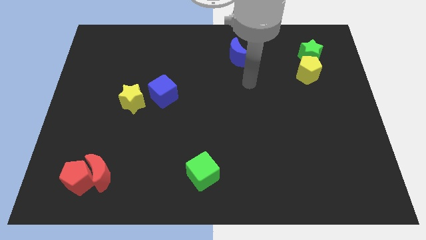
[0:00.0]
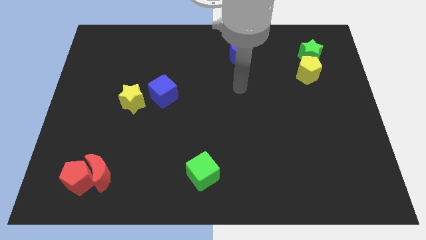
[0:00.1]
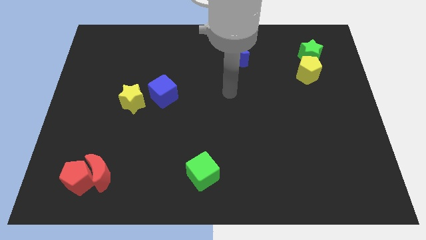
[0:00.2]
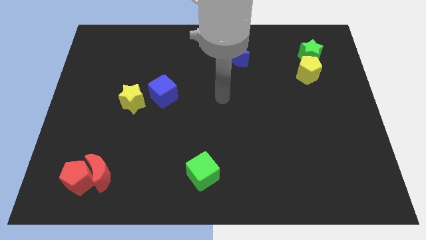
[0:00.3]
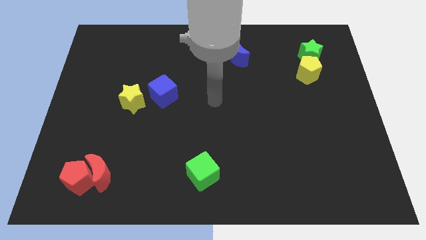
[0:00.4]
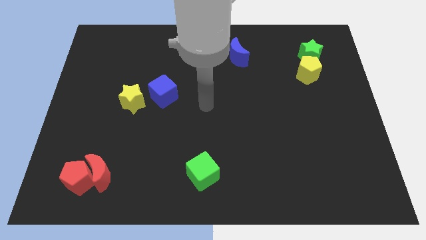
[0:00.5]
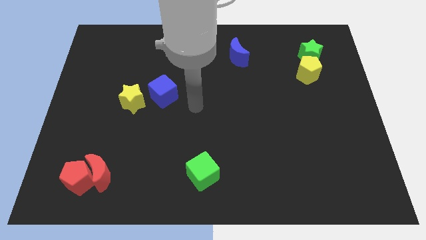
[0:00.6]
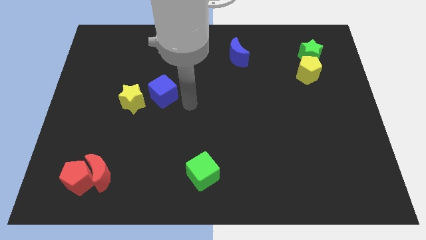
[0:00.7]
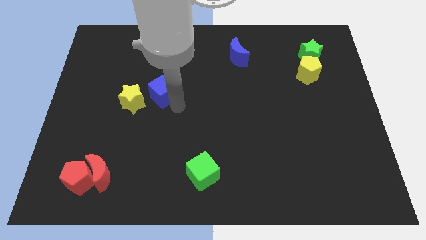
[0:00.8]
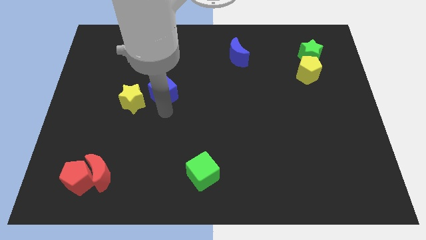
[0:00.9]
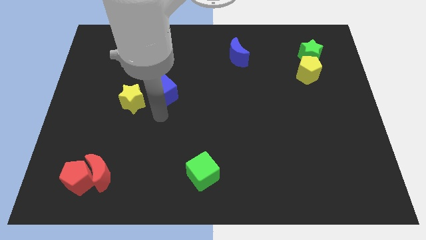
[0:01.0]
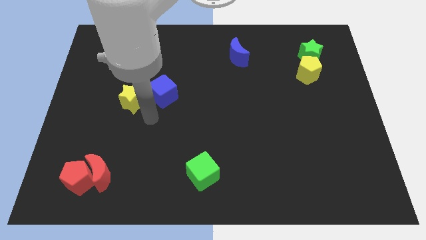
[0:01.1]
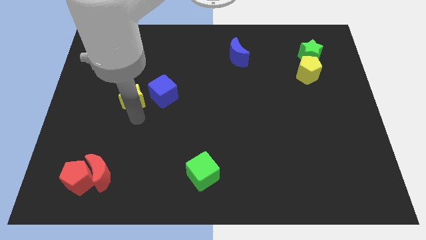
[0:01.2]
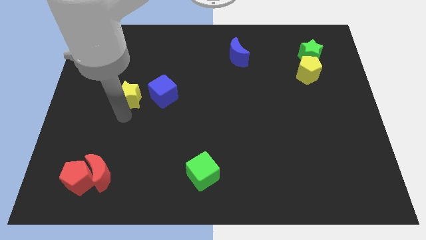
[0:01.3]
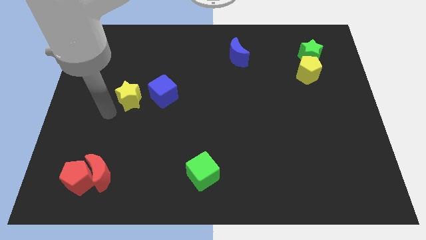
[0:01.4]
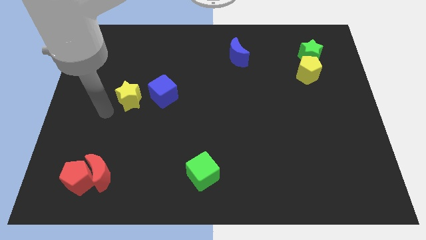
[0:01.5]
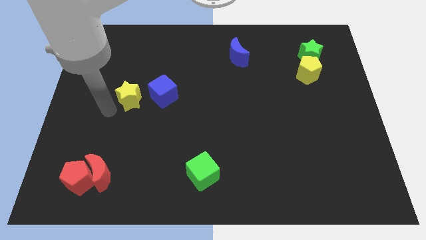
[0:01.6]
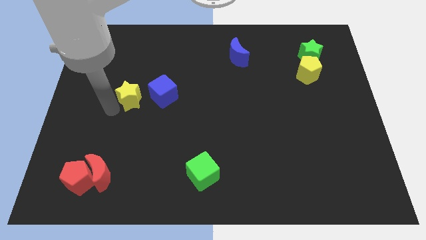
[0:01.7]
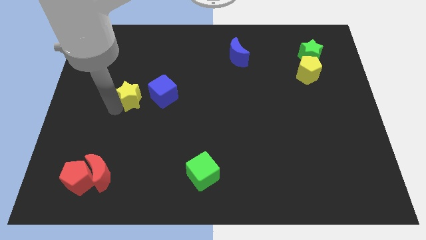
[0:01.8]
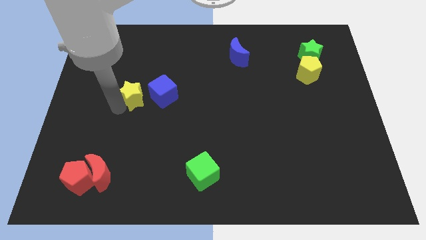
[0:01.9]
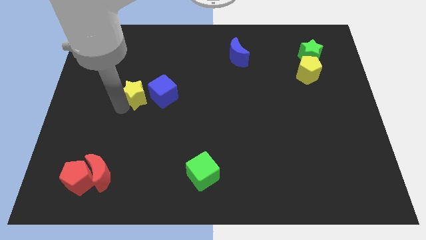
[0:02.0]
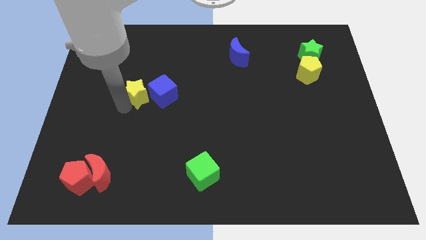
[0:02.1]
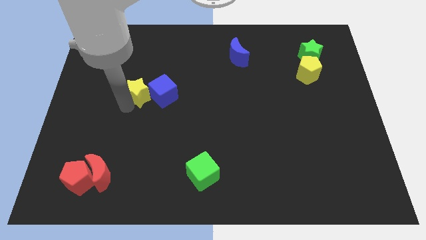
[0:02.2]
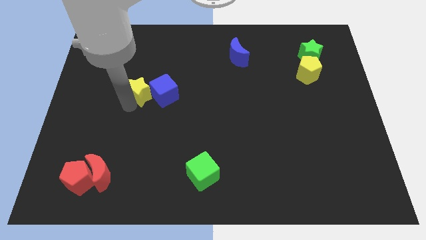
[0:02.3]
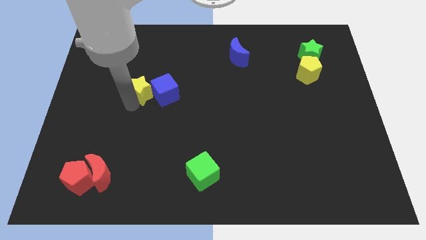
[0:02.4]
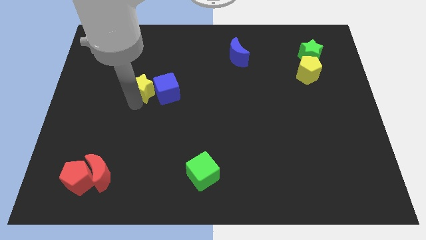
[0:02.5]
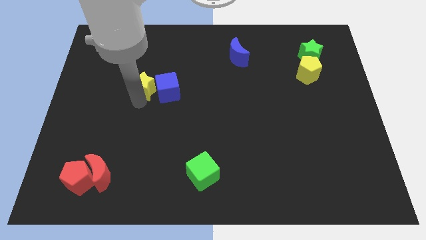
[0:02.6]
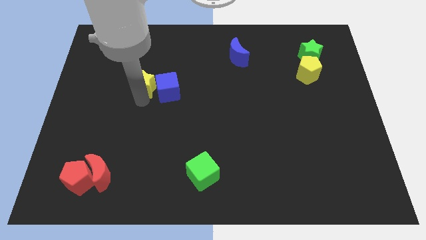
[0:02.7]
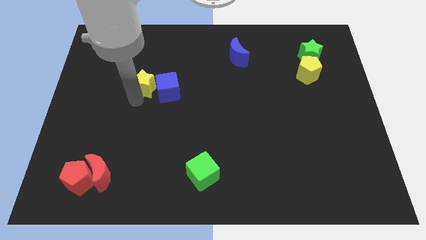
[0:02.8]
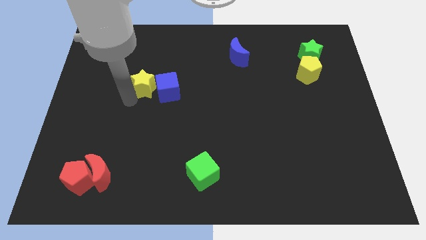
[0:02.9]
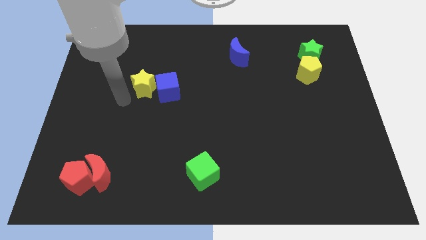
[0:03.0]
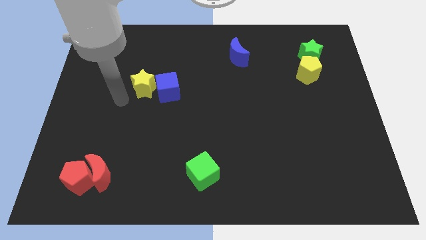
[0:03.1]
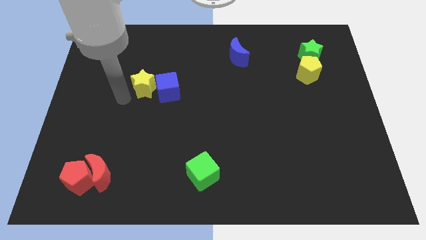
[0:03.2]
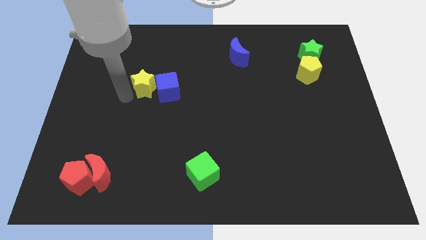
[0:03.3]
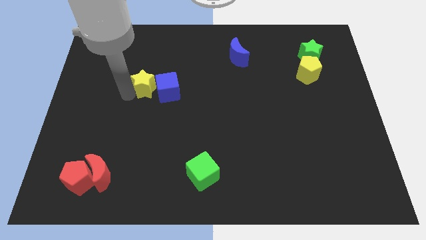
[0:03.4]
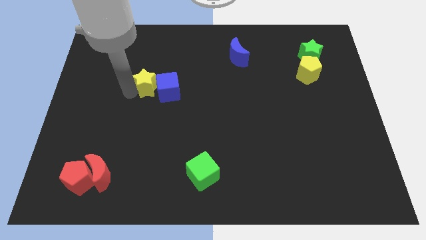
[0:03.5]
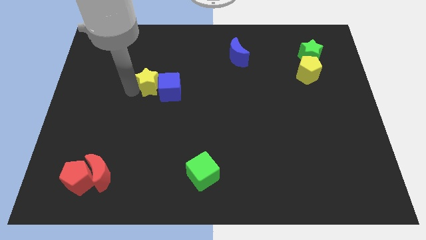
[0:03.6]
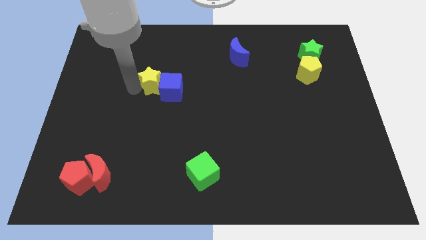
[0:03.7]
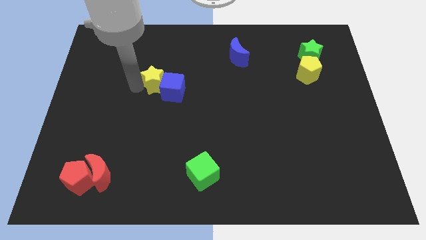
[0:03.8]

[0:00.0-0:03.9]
move the yellow star somewhat upwards and then to the right

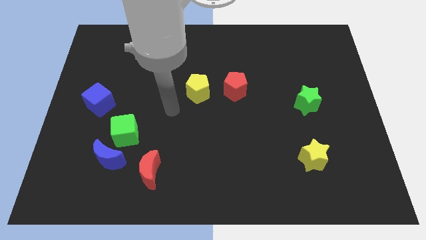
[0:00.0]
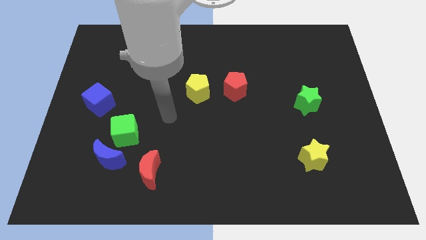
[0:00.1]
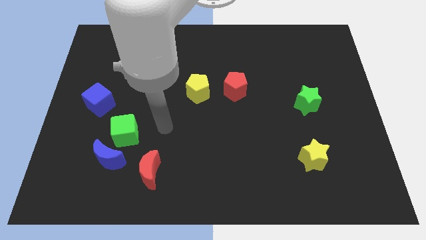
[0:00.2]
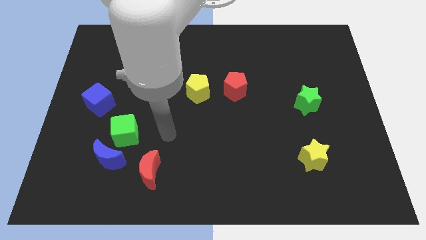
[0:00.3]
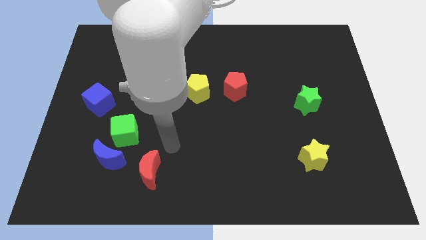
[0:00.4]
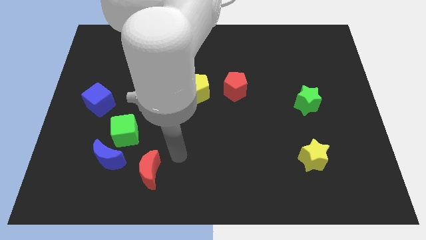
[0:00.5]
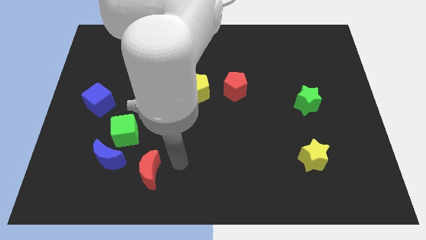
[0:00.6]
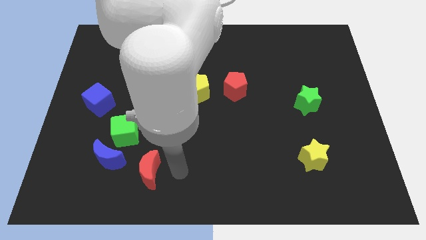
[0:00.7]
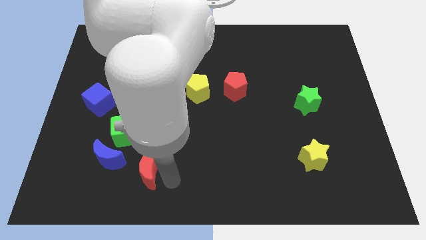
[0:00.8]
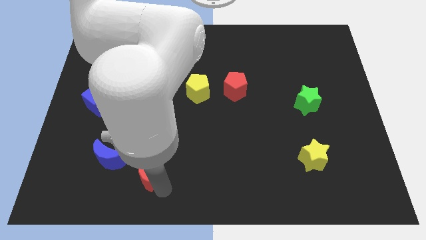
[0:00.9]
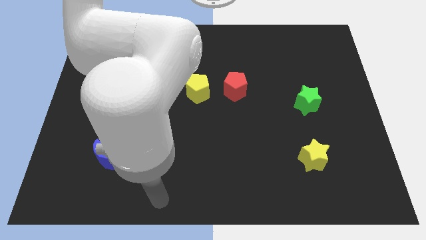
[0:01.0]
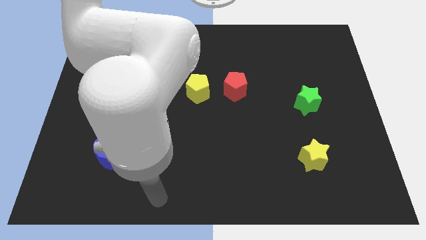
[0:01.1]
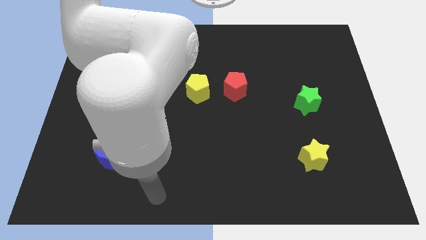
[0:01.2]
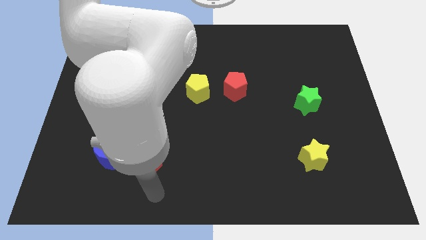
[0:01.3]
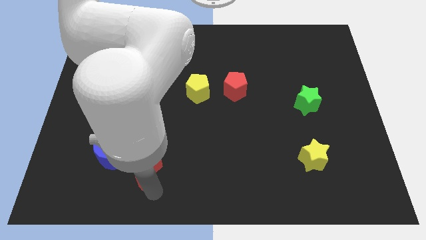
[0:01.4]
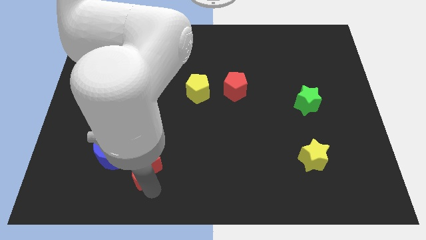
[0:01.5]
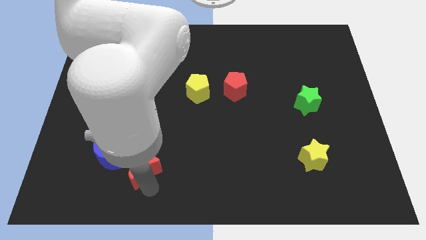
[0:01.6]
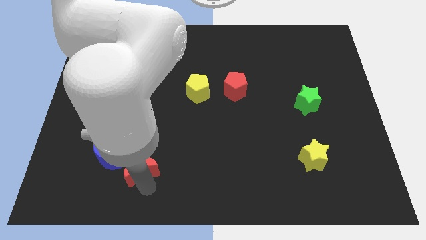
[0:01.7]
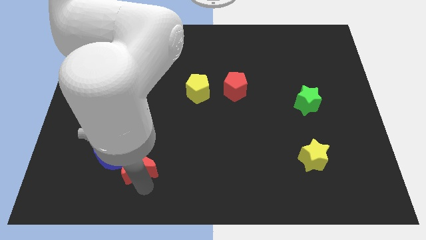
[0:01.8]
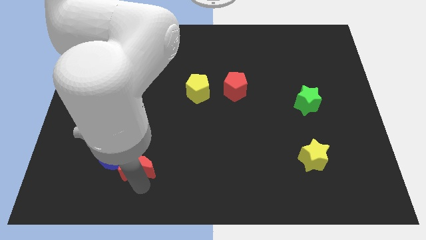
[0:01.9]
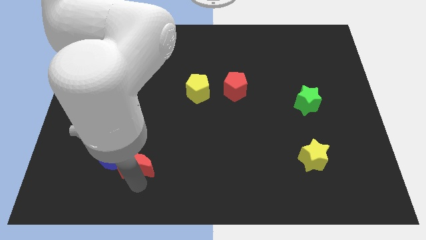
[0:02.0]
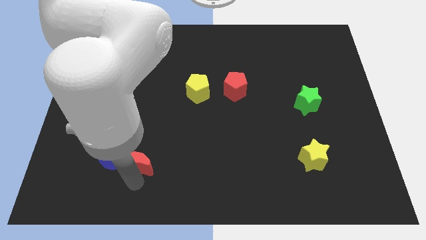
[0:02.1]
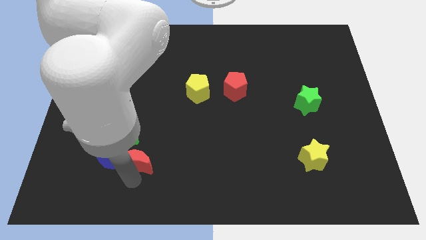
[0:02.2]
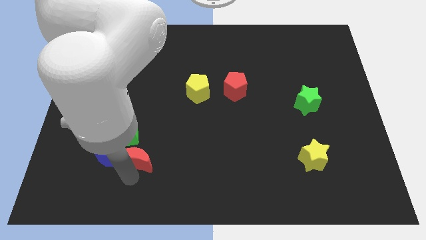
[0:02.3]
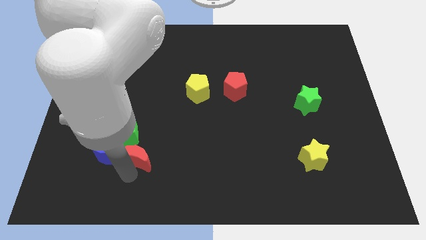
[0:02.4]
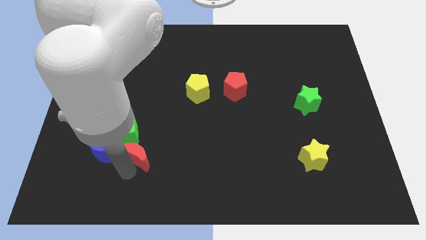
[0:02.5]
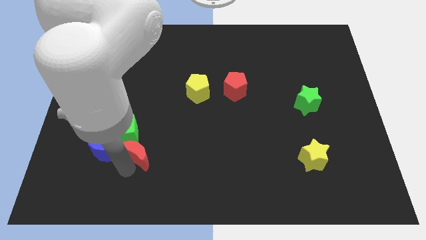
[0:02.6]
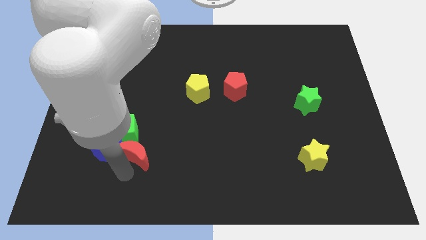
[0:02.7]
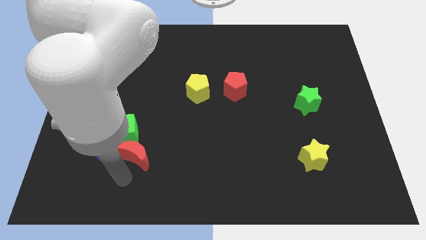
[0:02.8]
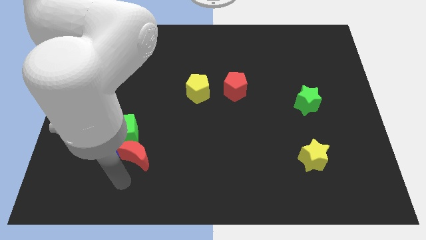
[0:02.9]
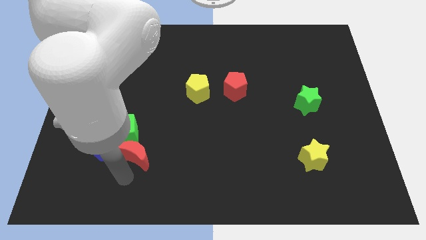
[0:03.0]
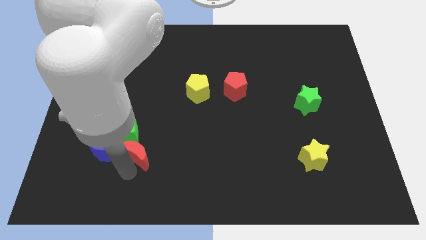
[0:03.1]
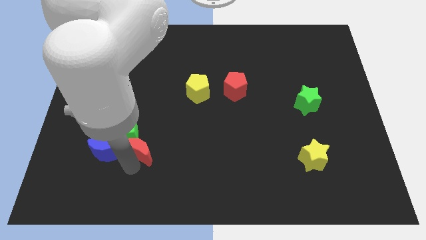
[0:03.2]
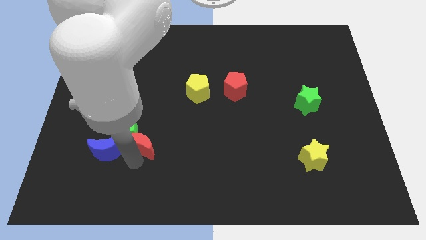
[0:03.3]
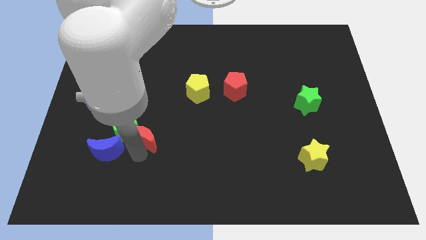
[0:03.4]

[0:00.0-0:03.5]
slightly slide the red moon upwards

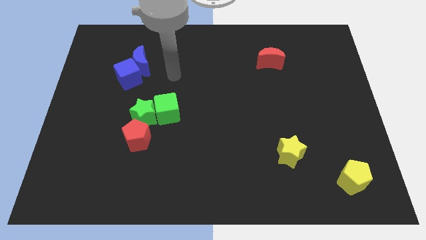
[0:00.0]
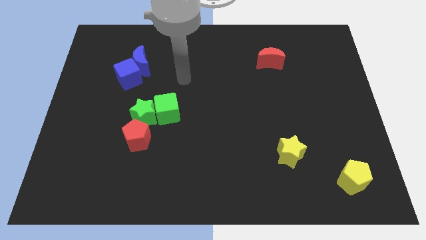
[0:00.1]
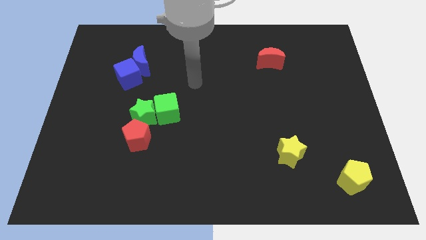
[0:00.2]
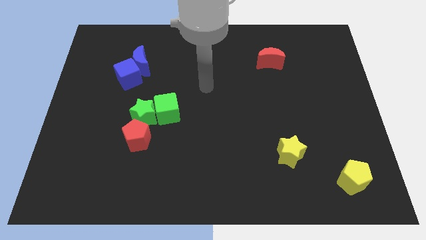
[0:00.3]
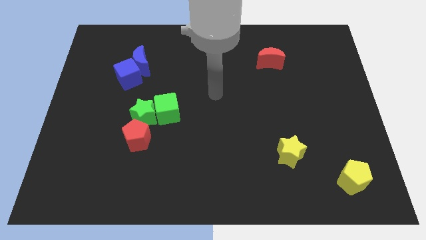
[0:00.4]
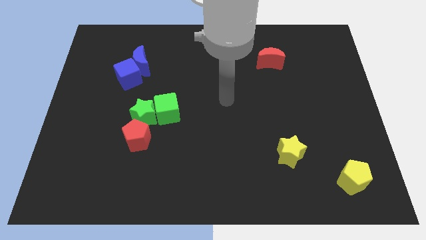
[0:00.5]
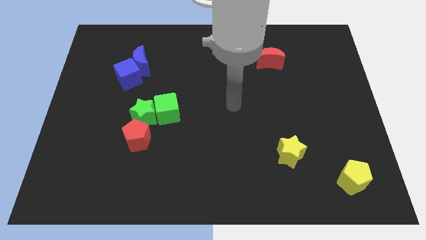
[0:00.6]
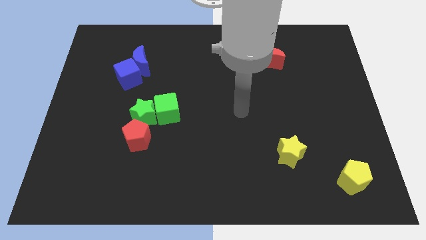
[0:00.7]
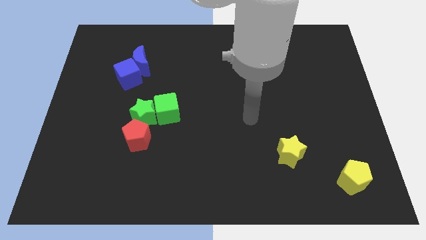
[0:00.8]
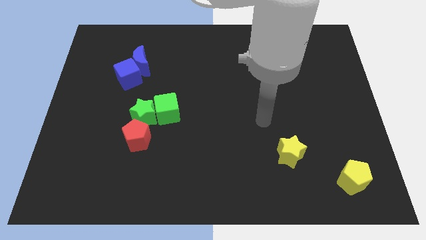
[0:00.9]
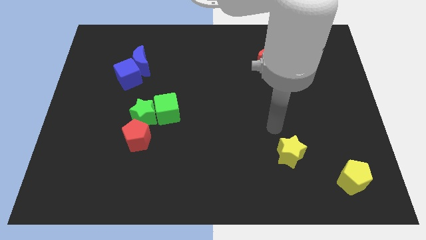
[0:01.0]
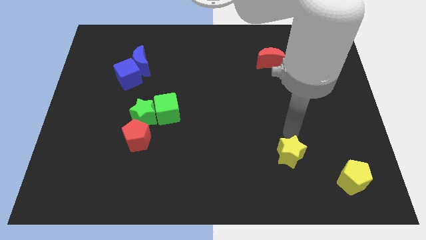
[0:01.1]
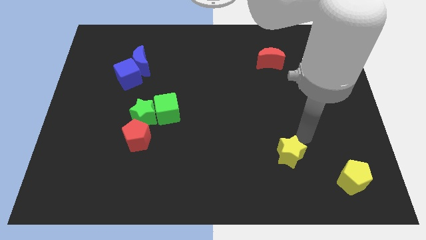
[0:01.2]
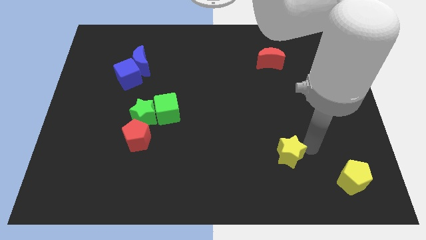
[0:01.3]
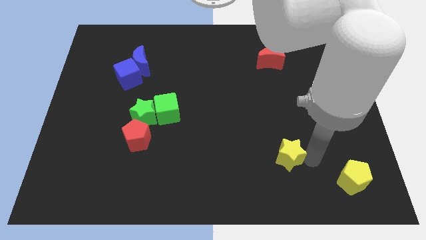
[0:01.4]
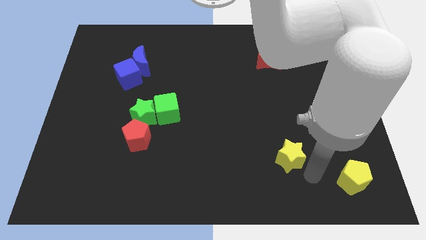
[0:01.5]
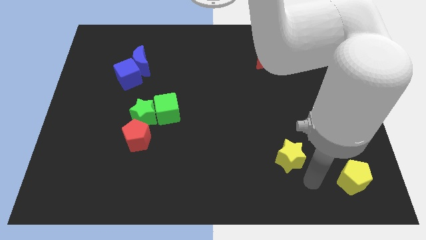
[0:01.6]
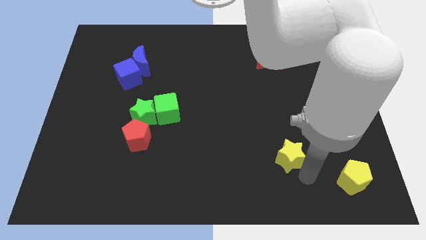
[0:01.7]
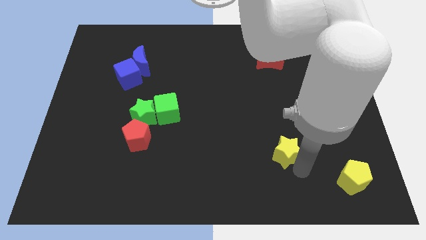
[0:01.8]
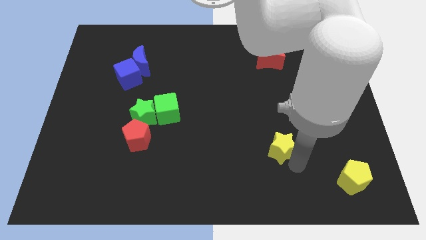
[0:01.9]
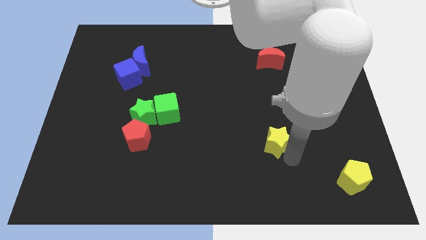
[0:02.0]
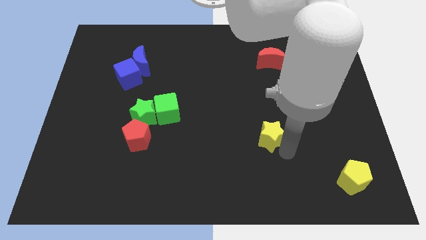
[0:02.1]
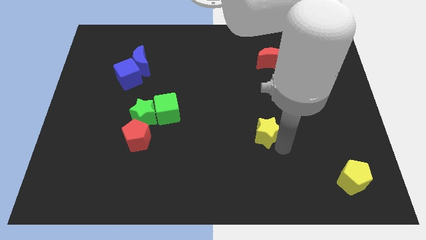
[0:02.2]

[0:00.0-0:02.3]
push the yellow star up and then left a little
